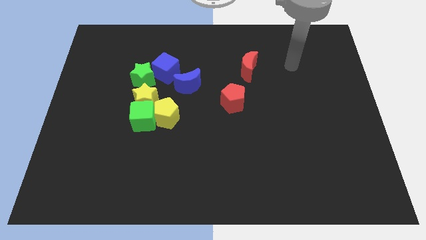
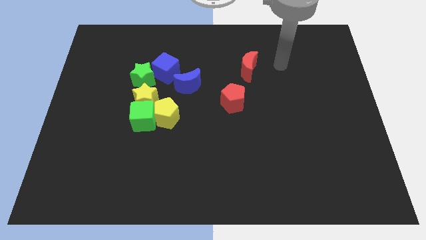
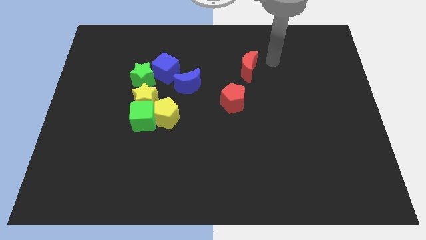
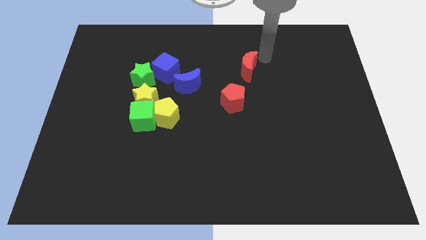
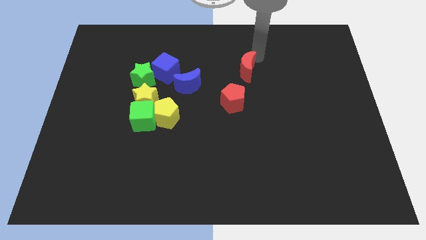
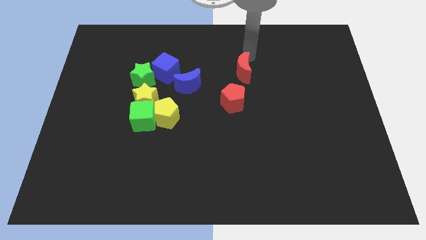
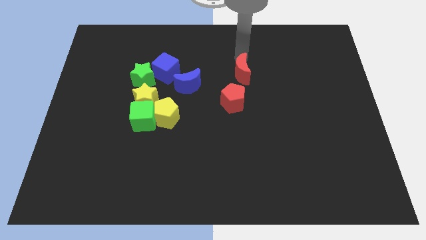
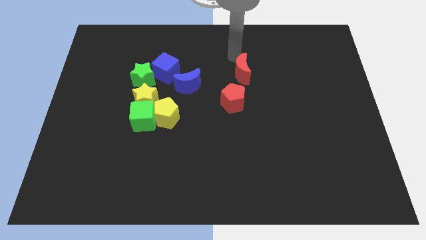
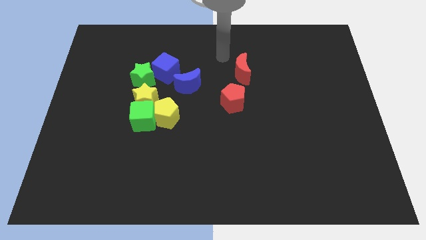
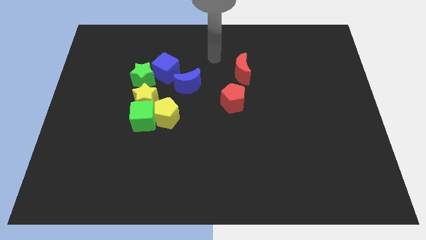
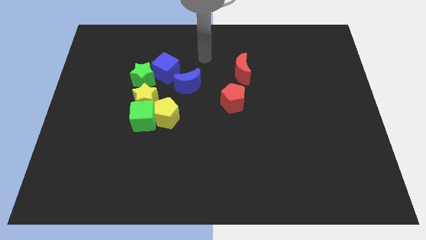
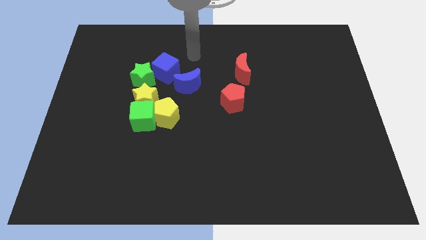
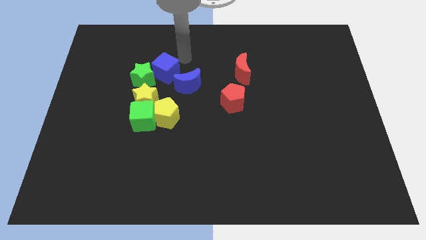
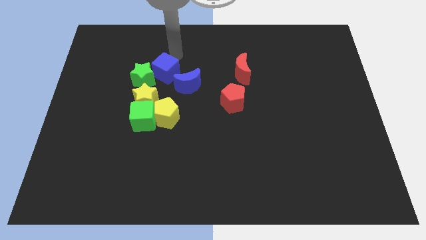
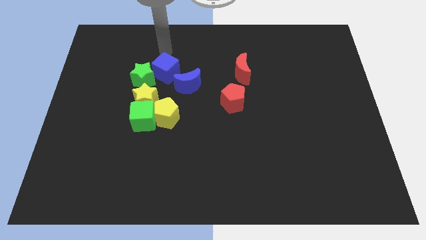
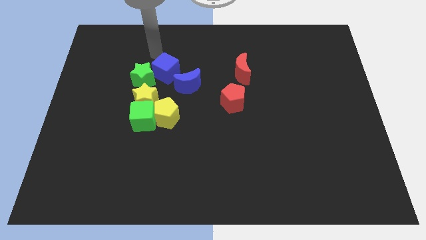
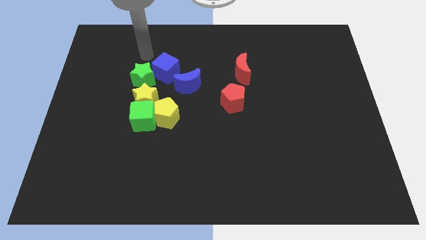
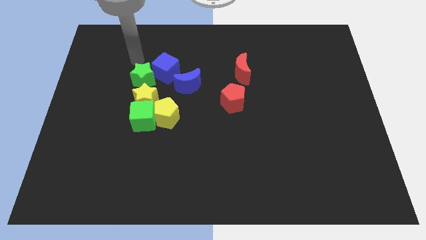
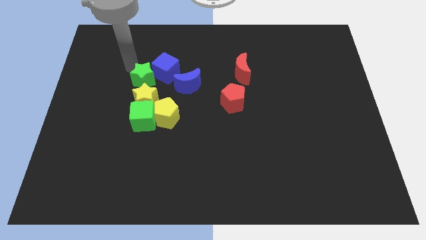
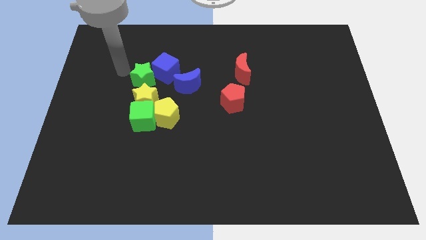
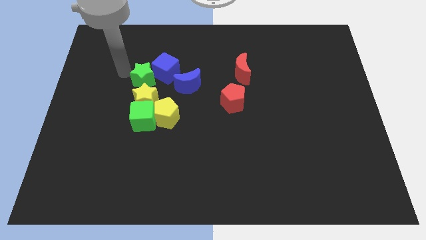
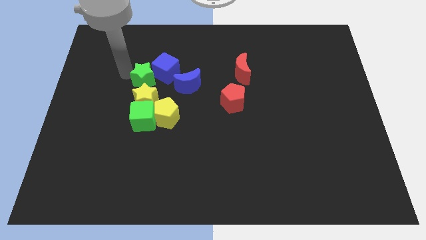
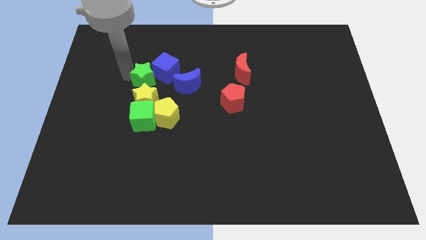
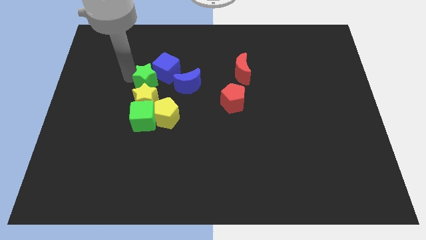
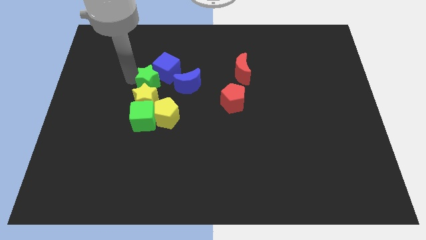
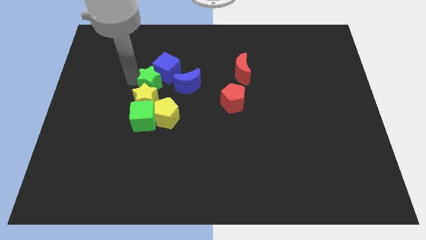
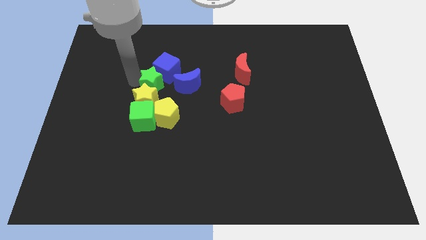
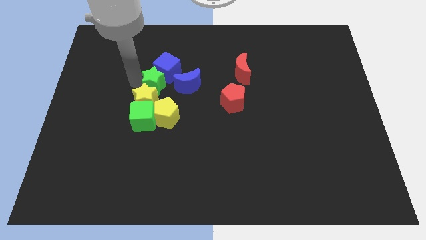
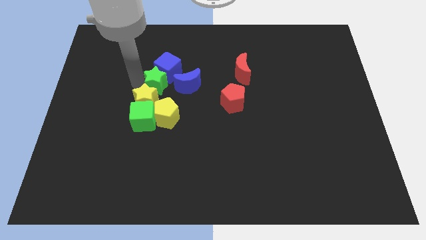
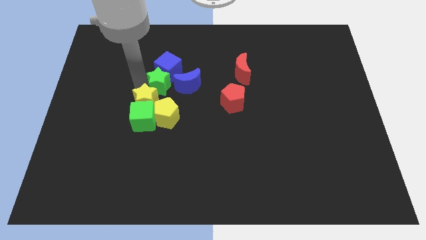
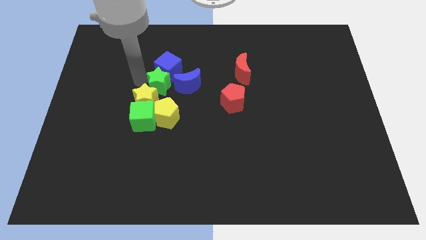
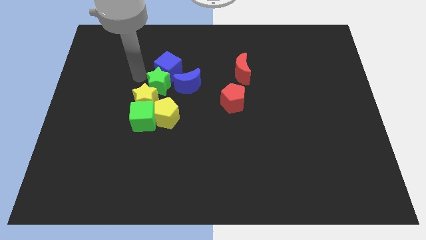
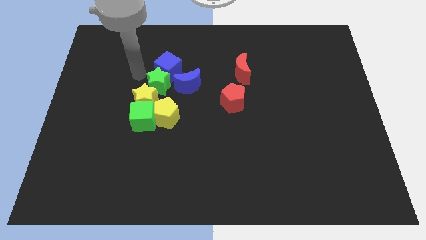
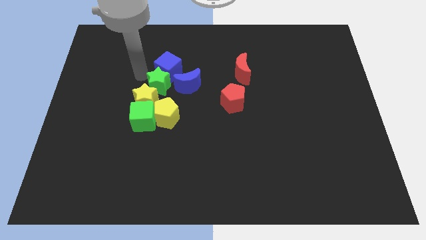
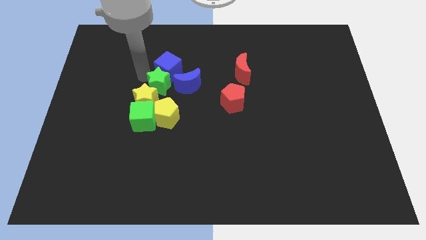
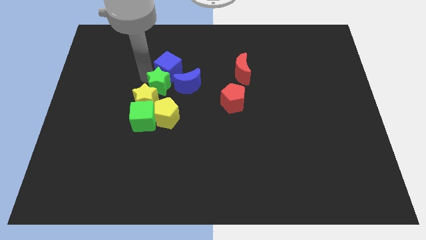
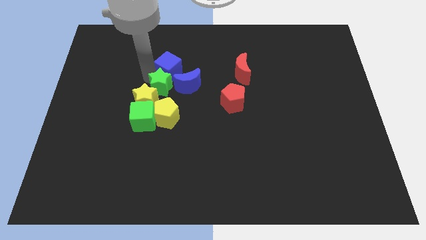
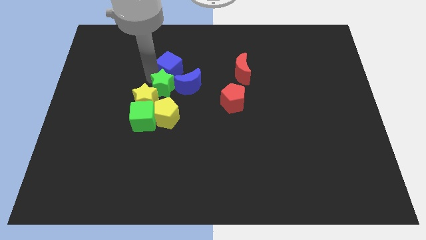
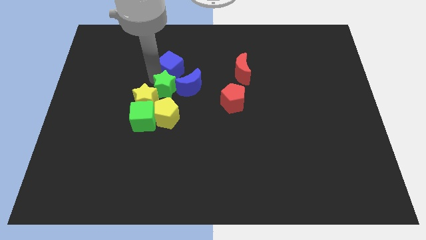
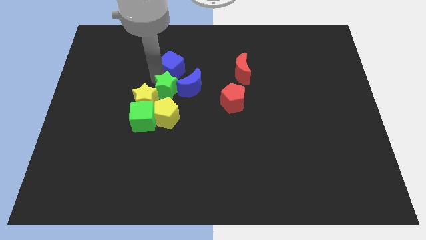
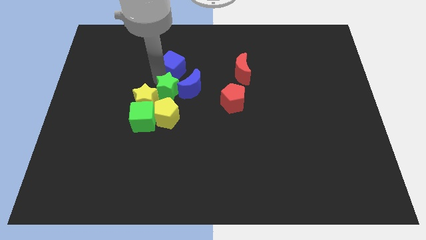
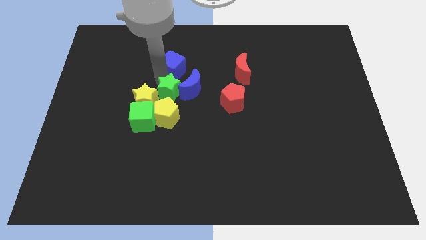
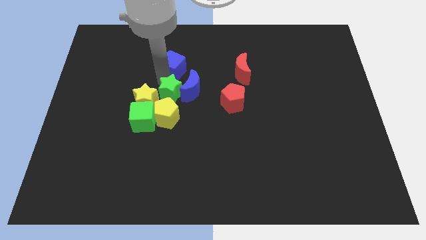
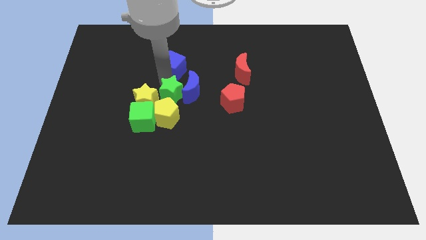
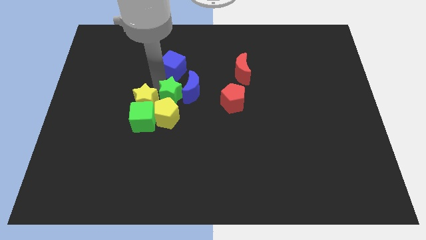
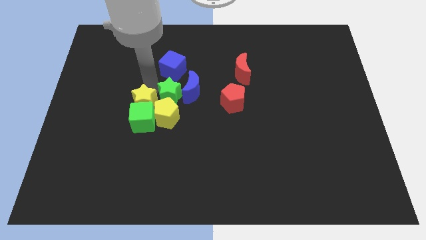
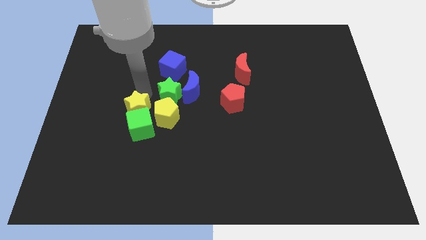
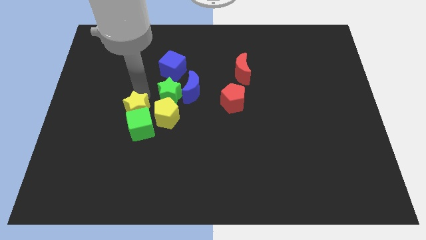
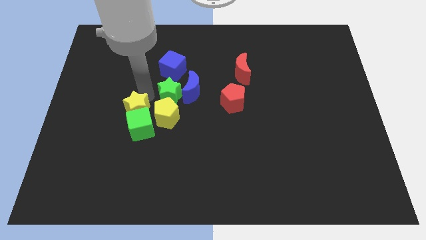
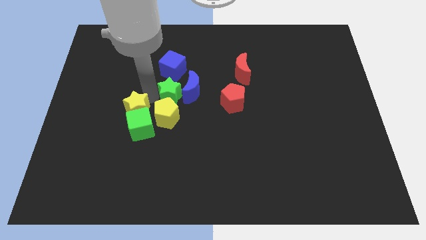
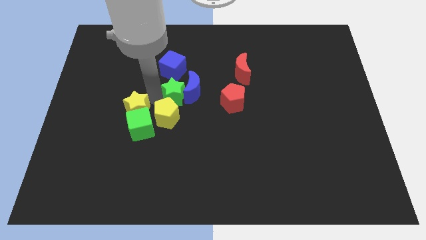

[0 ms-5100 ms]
slightly push the green star to the right

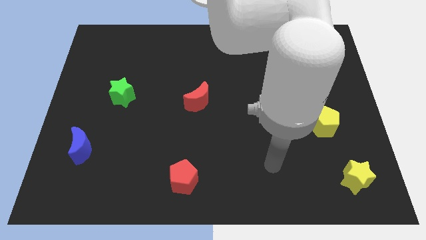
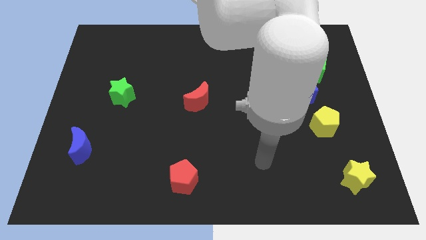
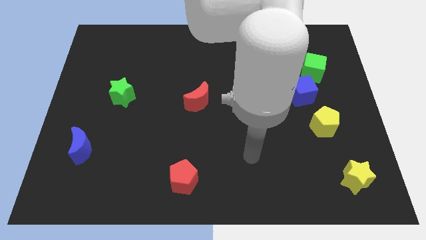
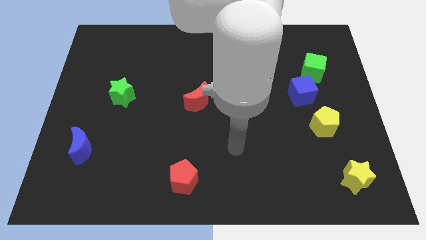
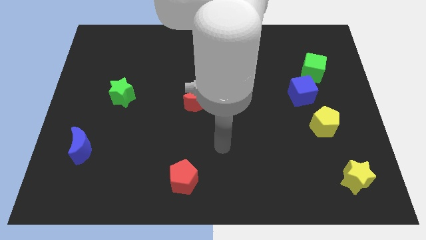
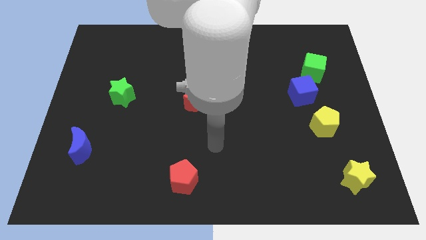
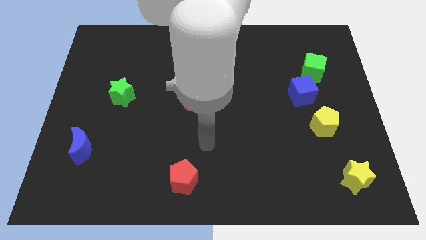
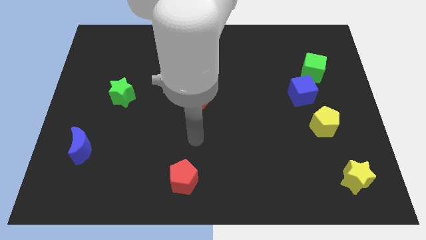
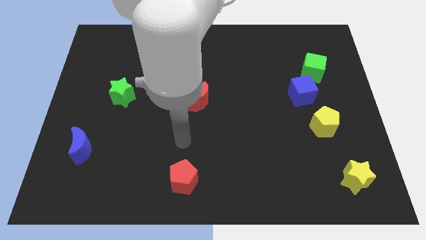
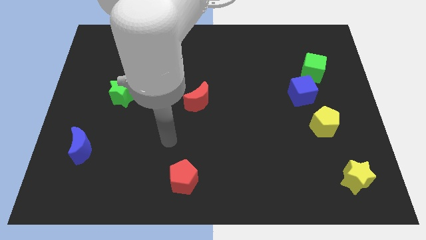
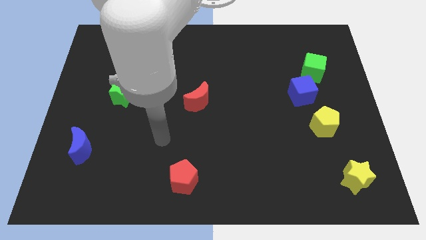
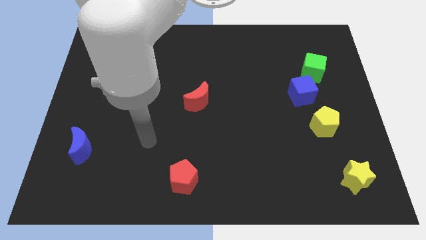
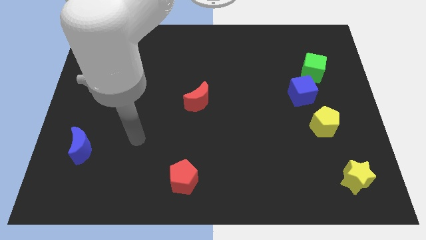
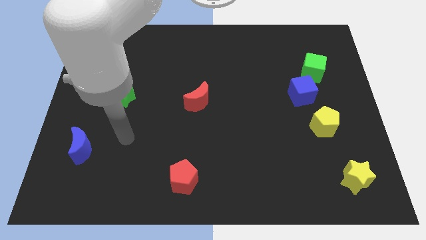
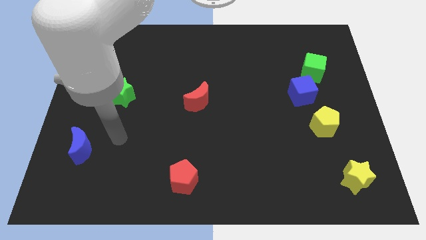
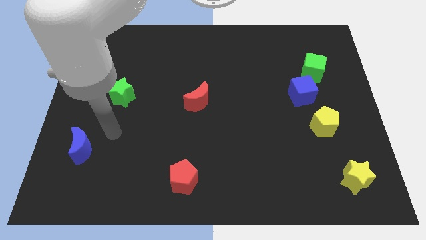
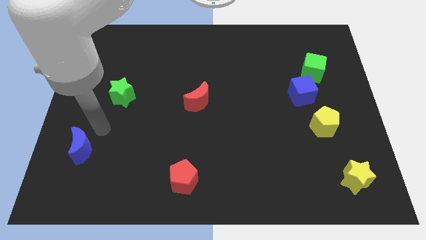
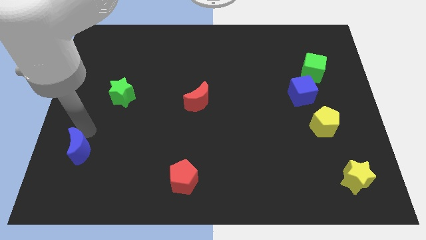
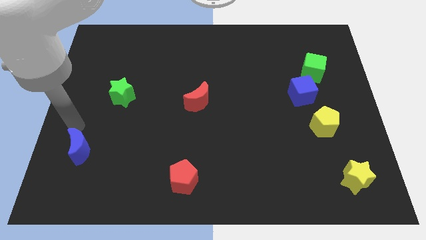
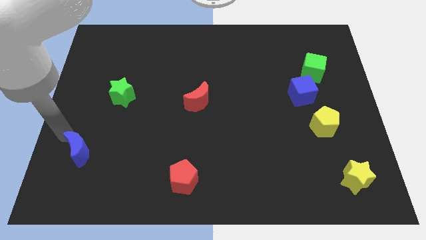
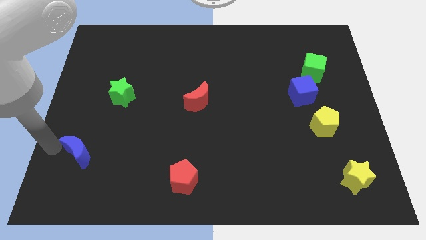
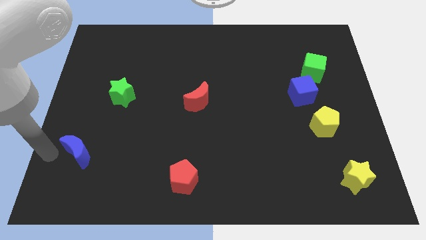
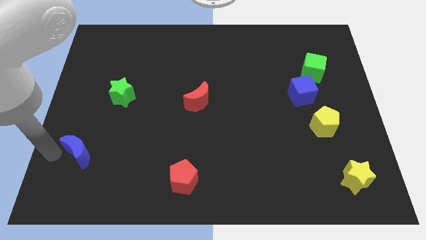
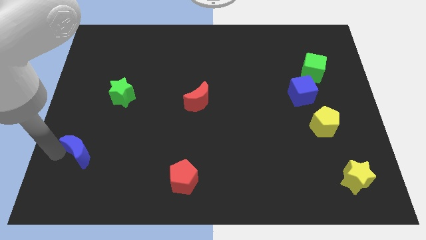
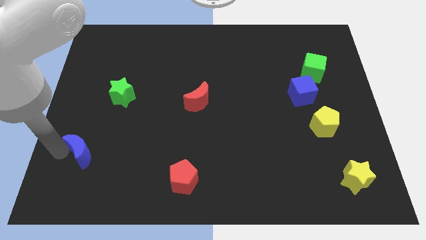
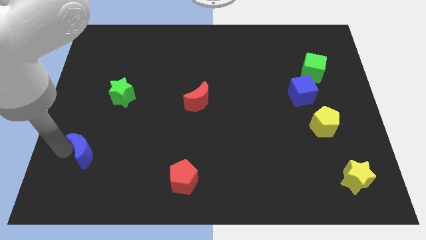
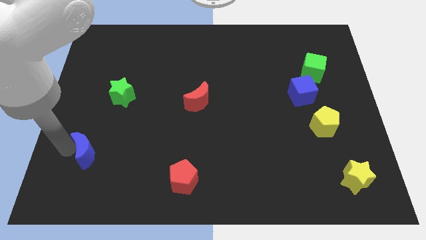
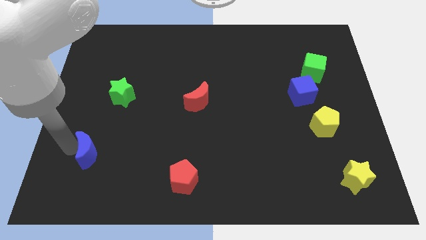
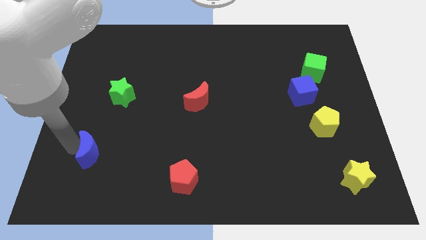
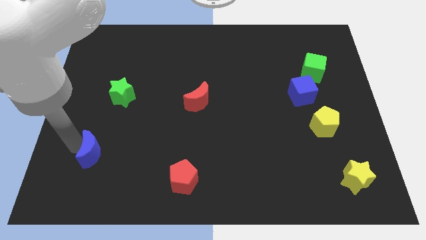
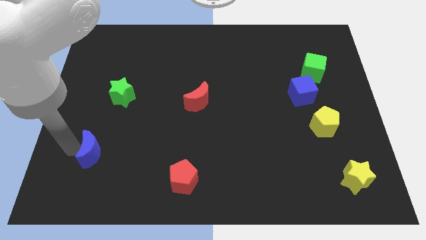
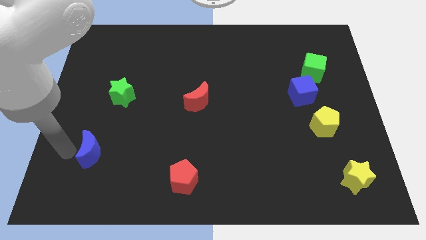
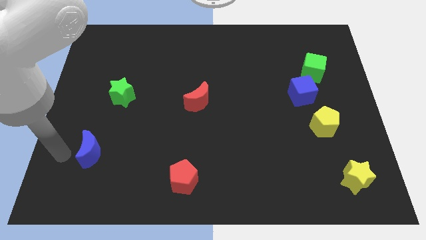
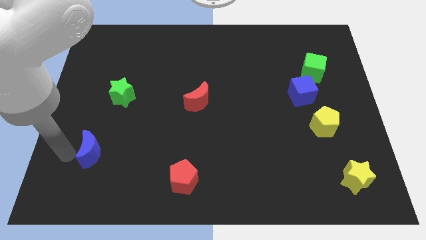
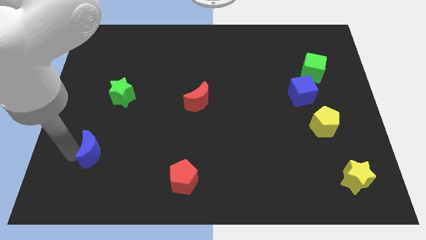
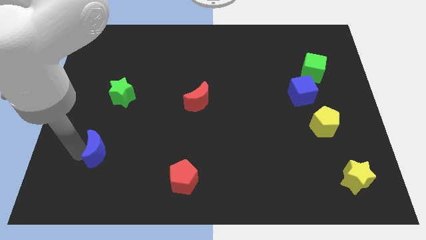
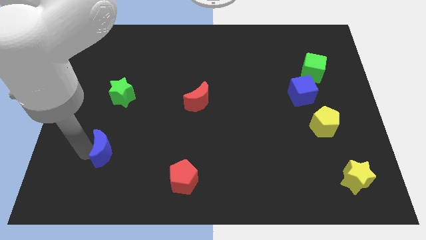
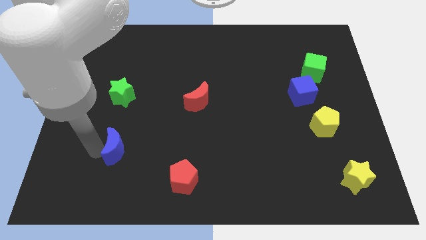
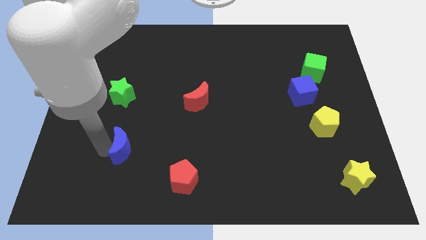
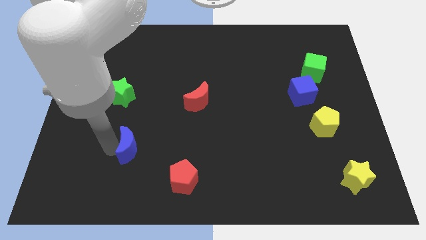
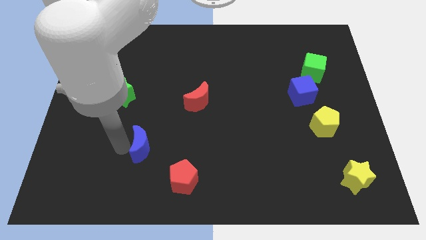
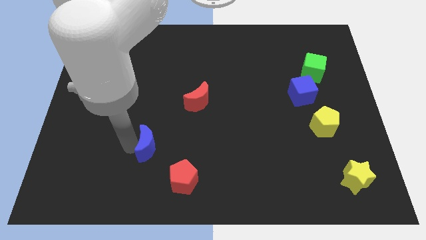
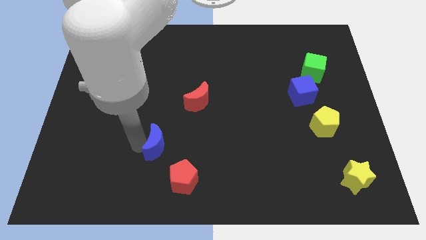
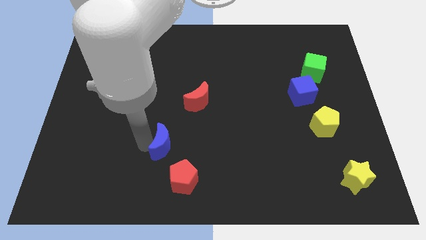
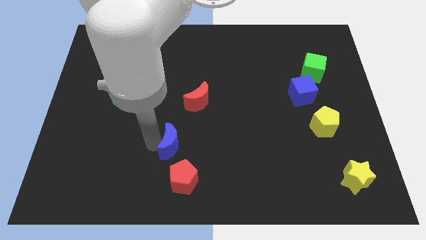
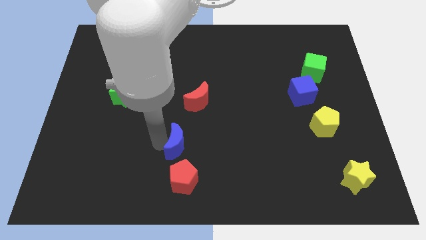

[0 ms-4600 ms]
move the blue moon to the right
